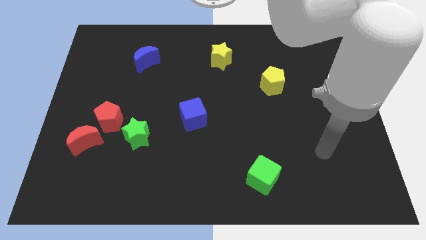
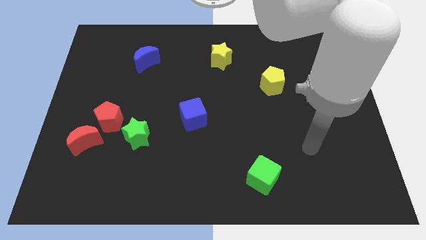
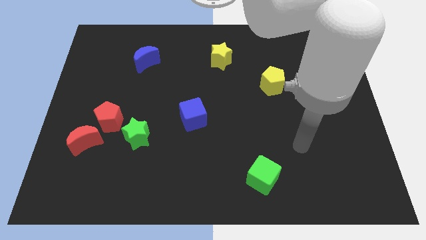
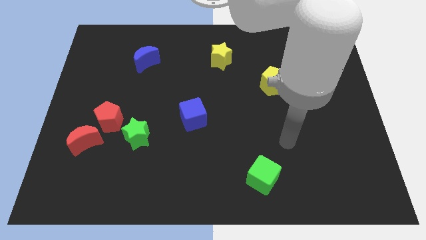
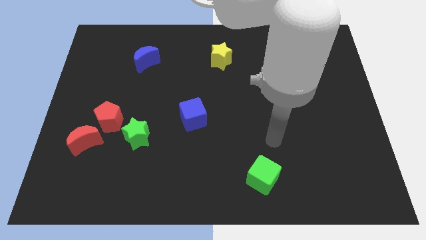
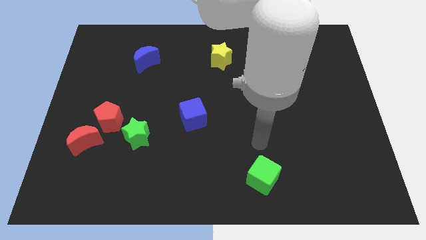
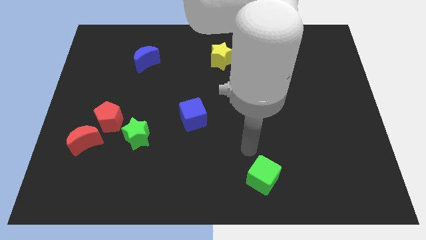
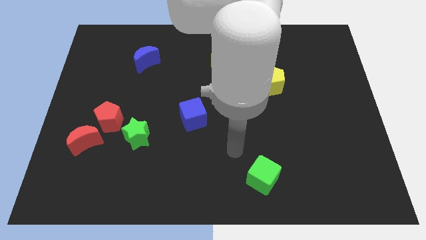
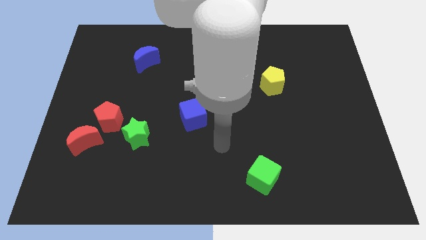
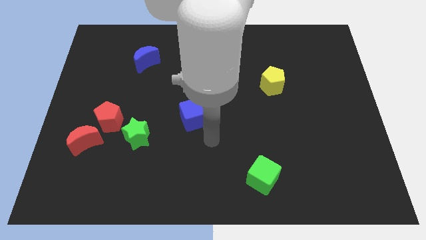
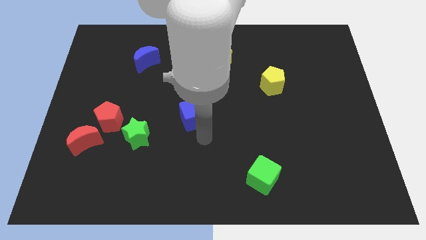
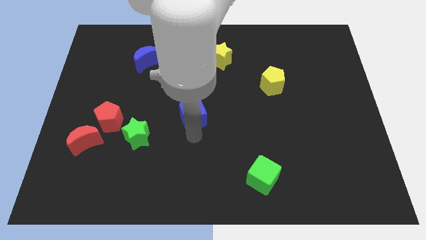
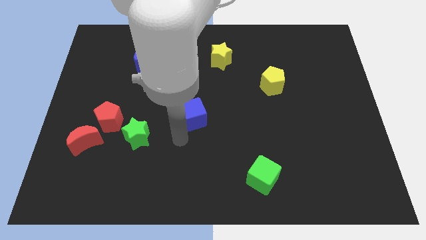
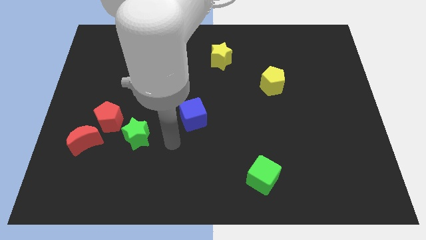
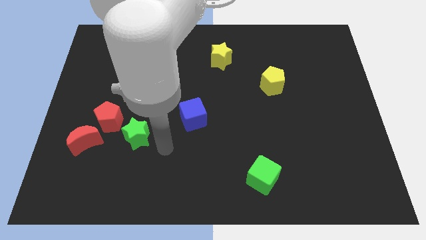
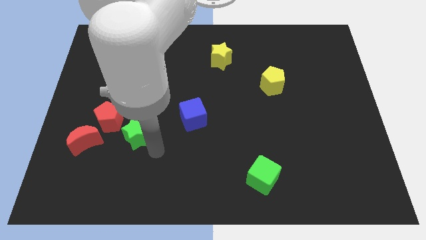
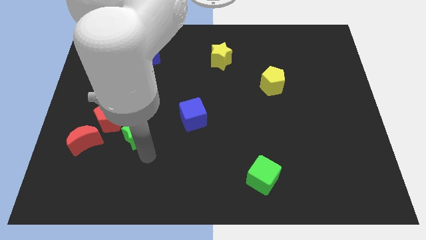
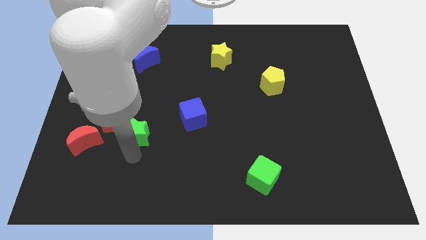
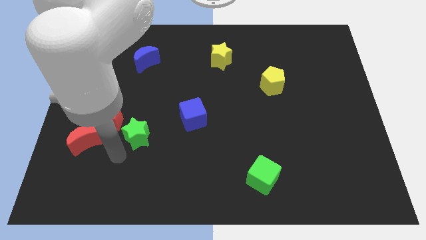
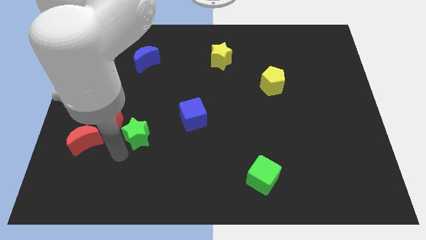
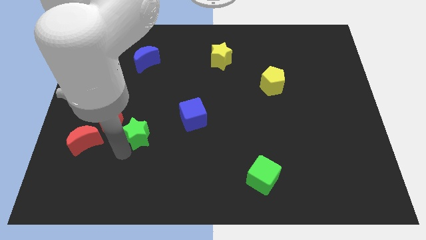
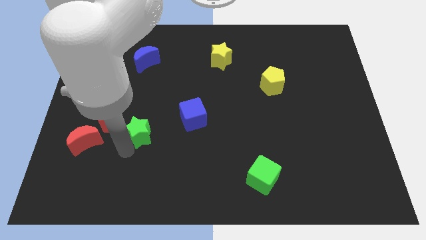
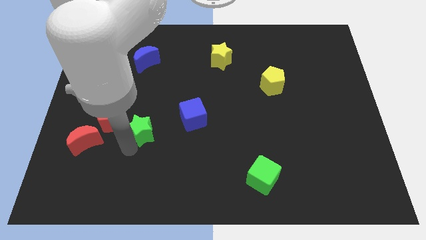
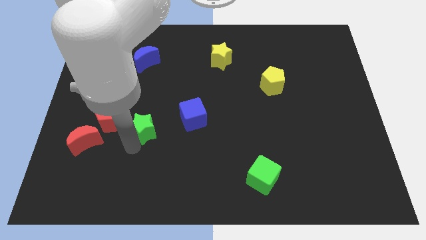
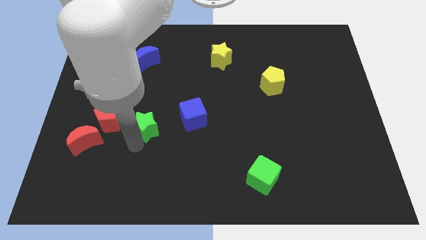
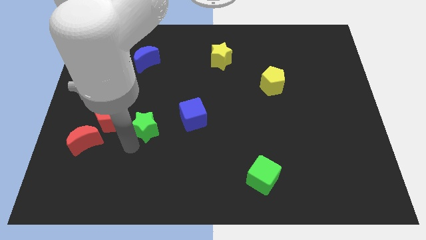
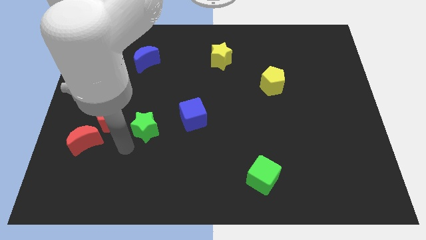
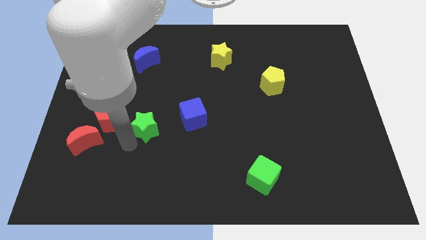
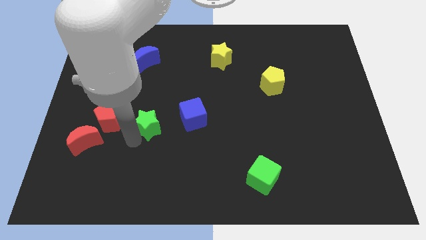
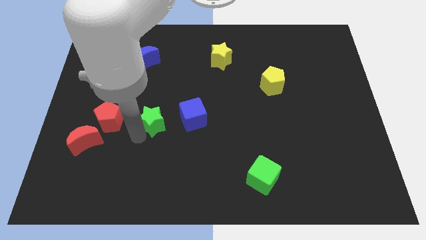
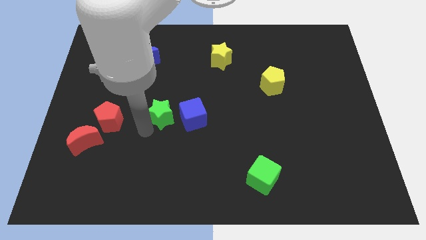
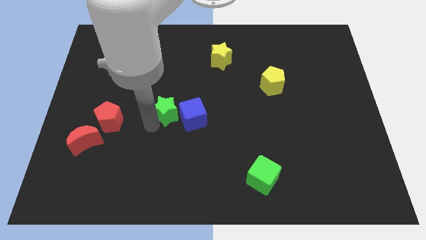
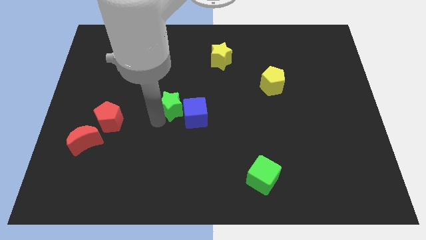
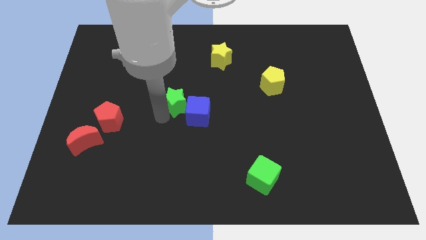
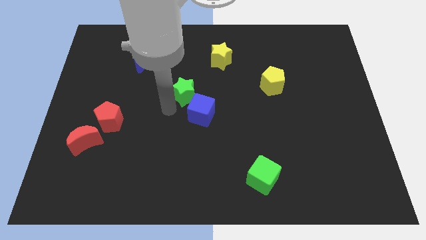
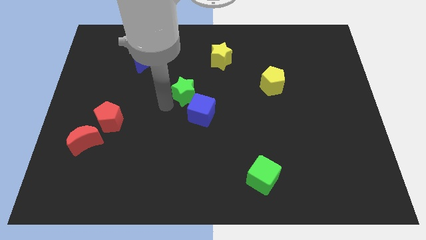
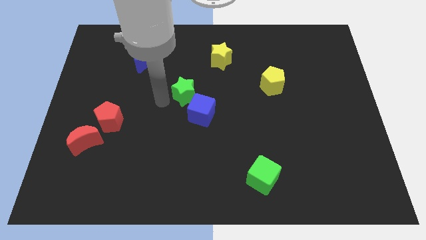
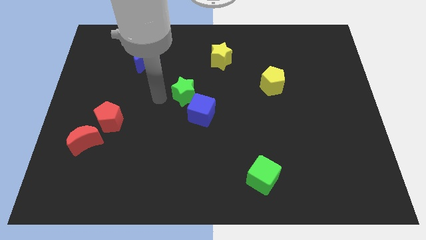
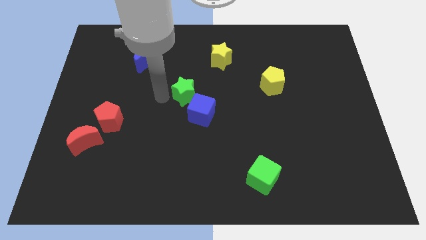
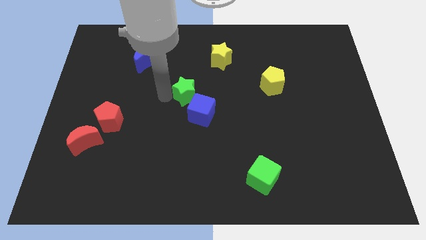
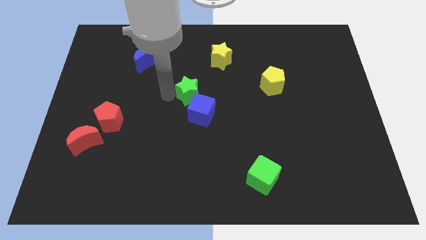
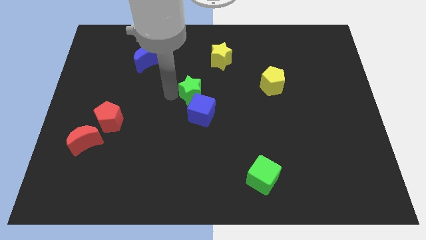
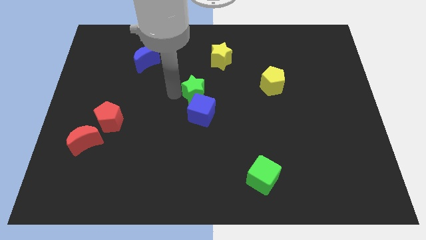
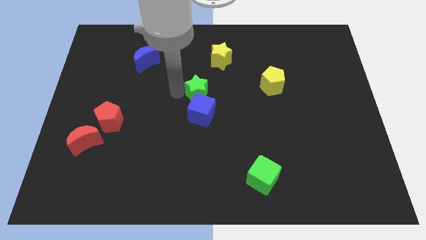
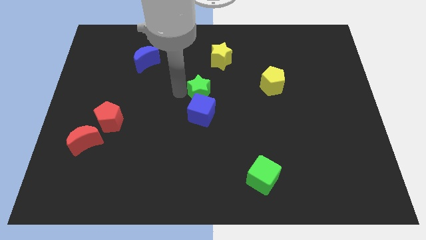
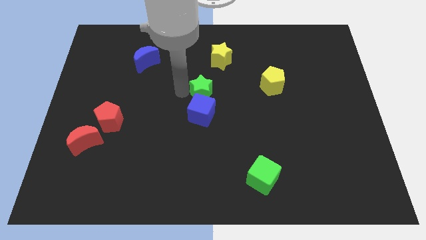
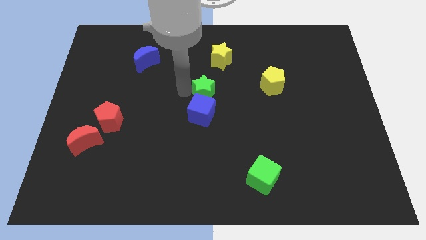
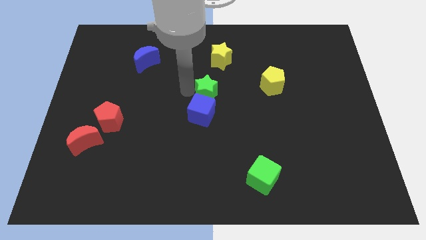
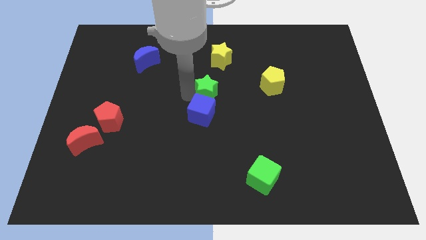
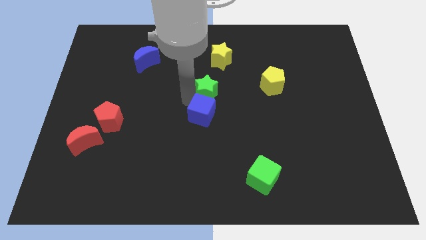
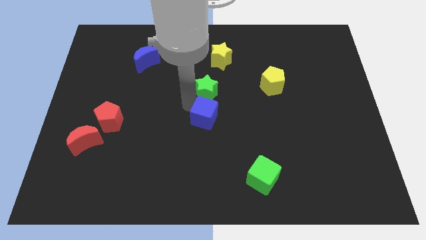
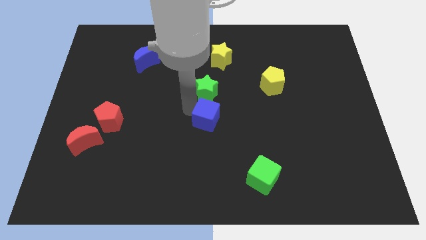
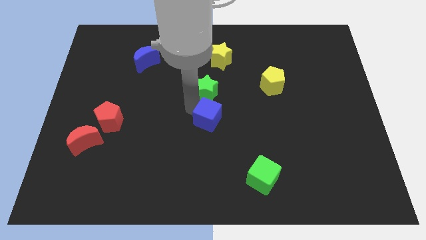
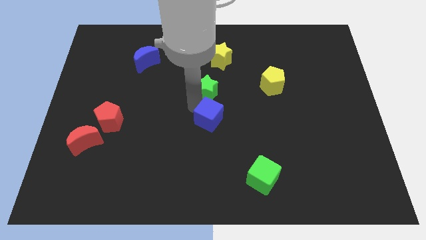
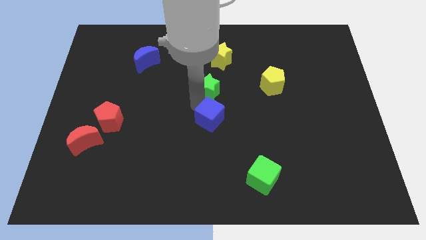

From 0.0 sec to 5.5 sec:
slide the green star upwards and to the right diagonally

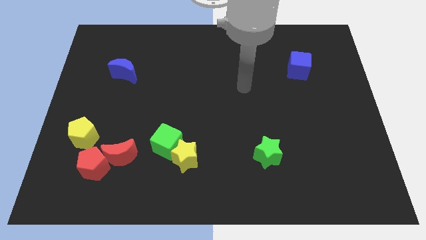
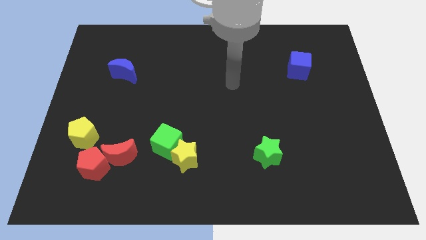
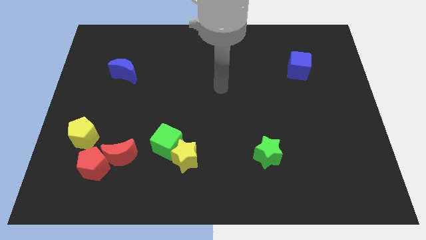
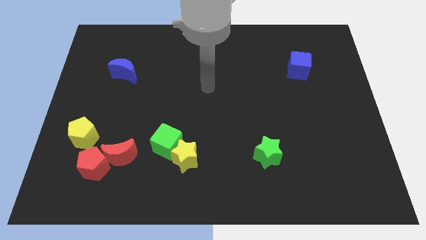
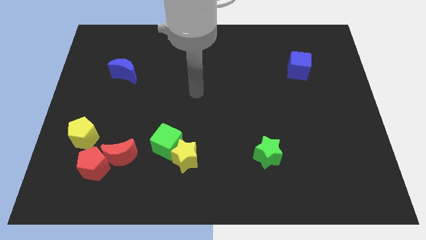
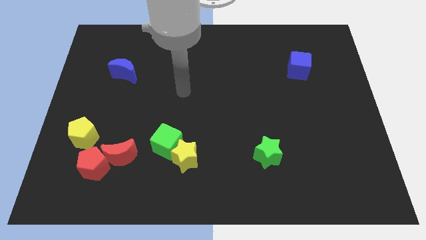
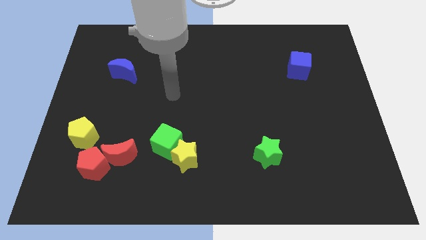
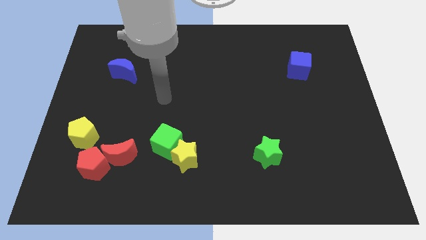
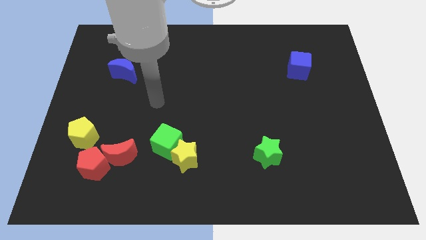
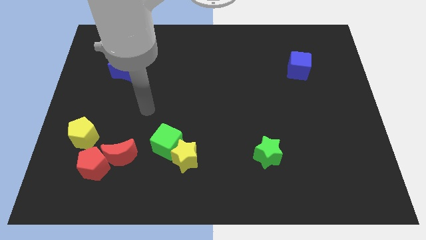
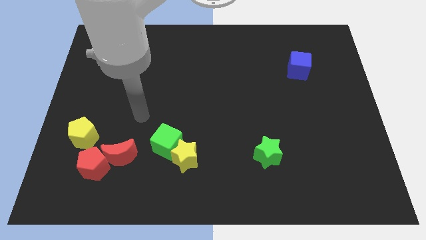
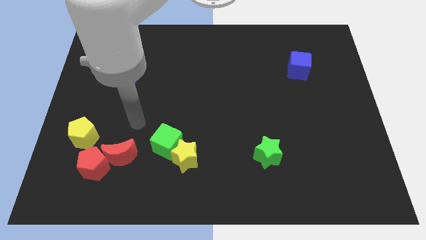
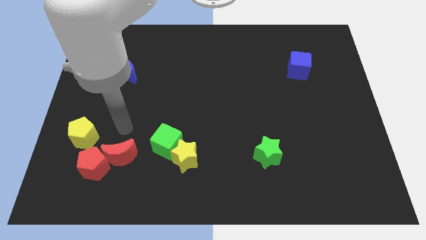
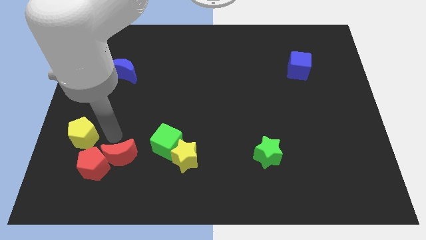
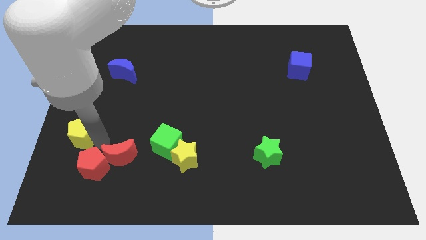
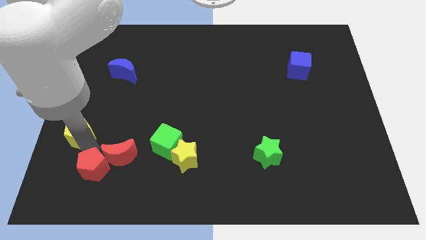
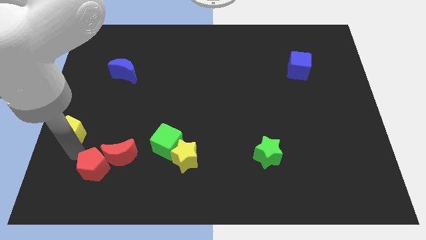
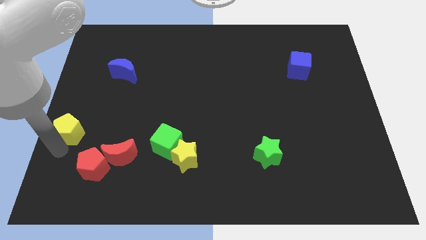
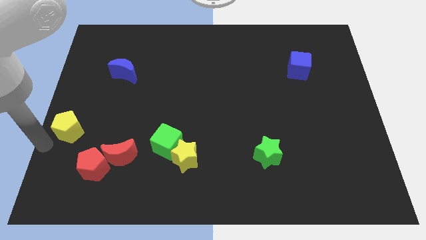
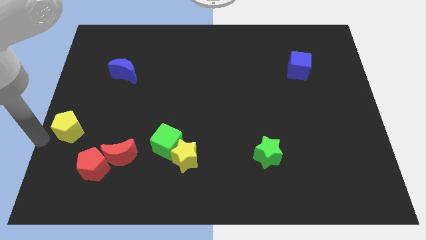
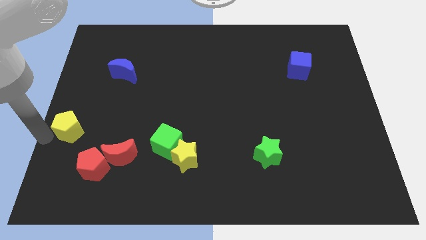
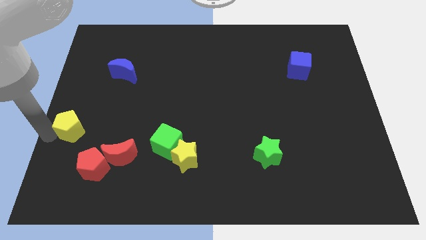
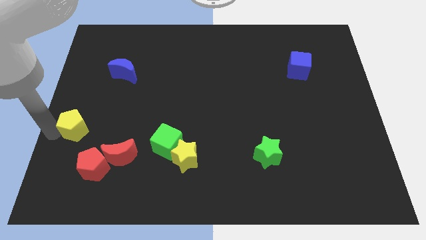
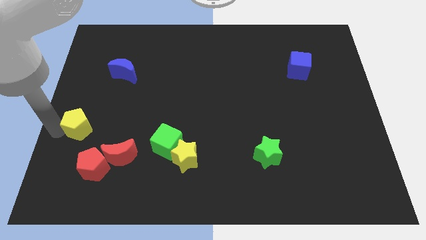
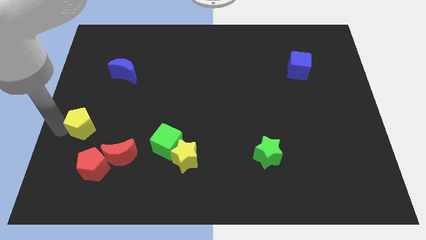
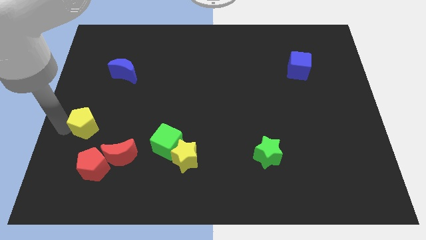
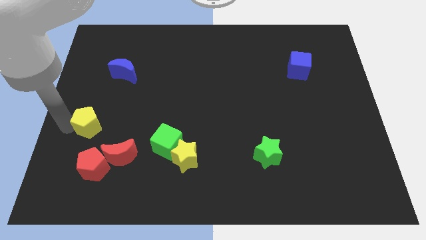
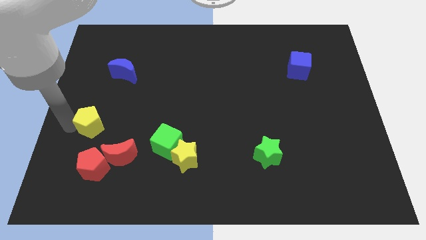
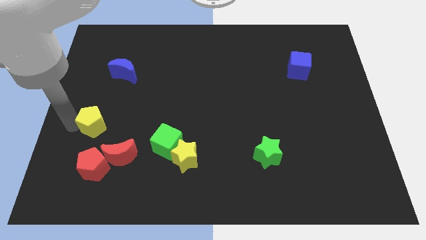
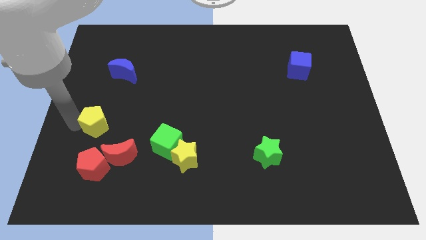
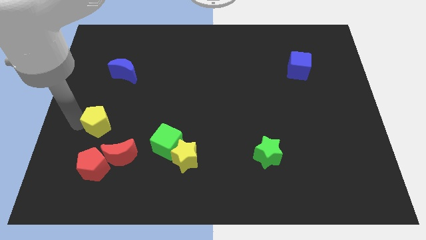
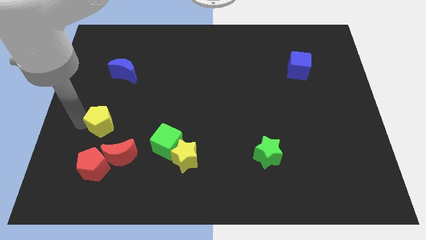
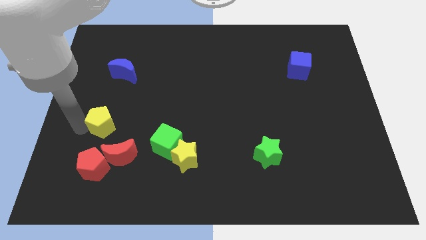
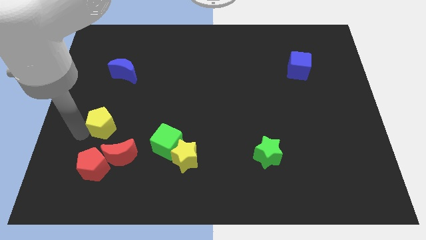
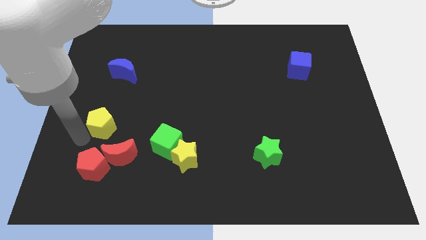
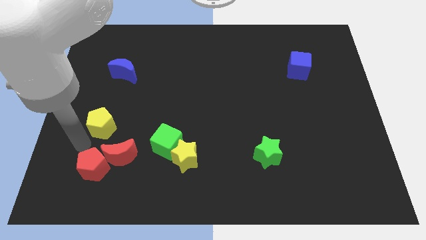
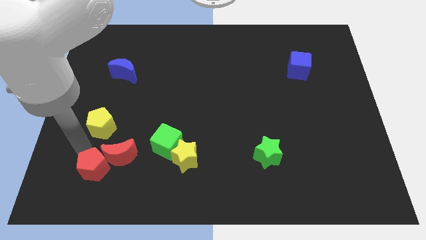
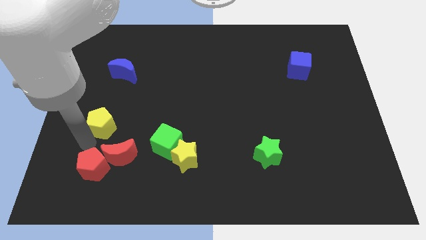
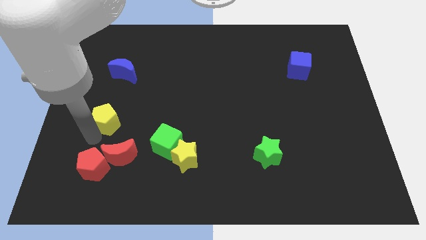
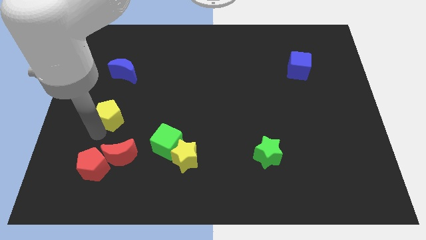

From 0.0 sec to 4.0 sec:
slide the yellow pentagon a bit diagonally up and right
